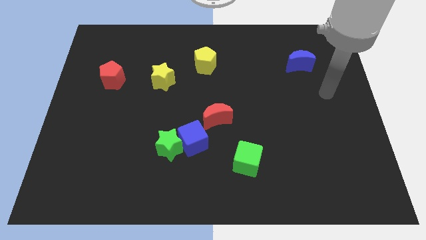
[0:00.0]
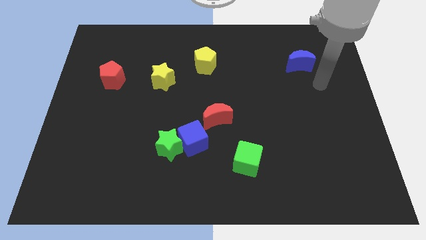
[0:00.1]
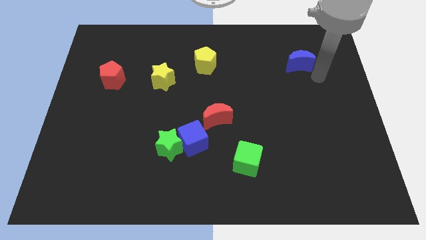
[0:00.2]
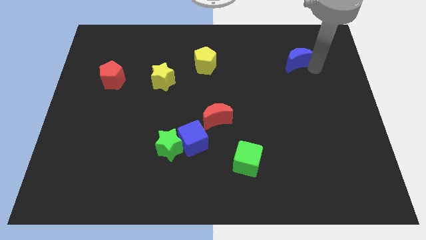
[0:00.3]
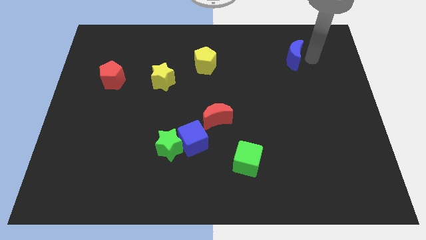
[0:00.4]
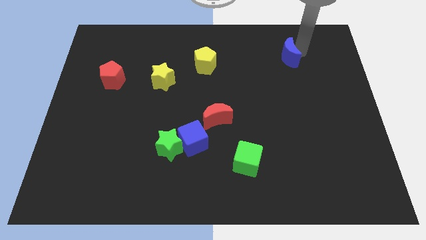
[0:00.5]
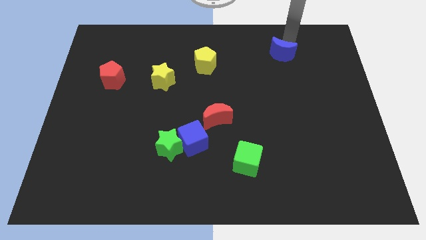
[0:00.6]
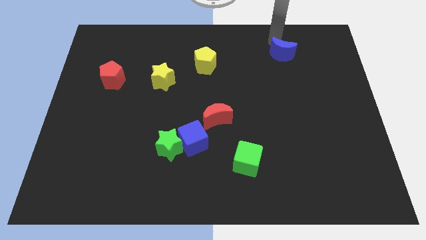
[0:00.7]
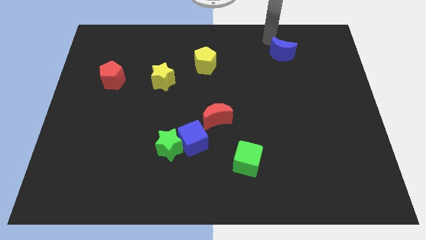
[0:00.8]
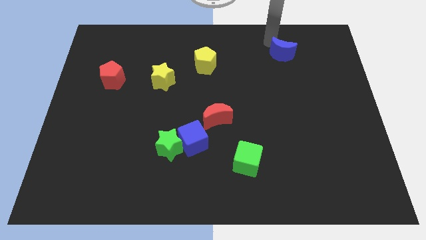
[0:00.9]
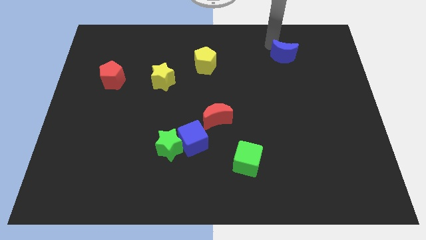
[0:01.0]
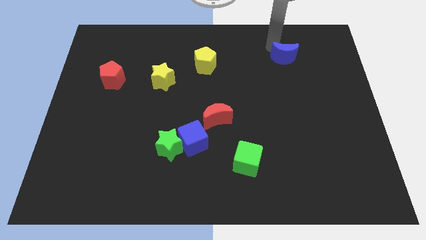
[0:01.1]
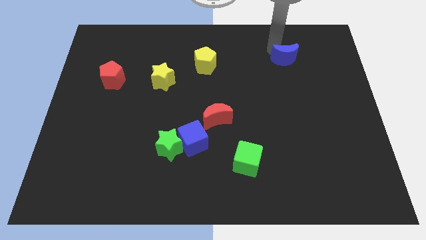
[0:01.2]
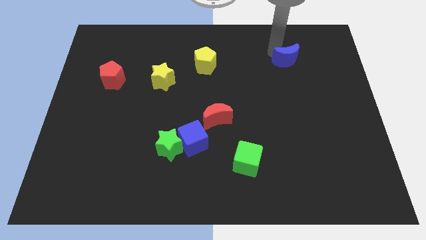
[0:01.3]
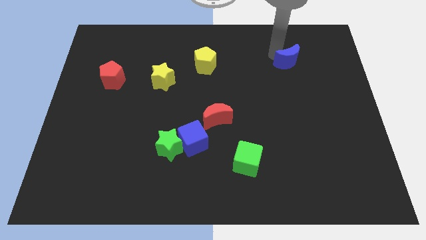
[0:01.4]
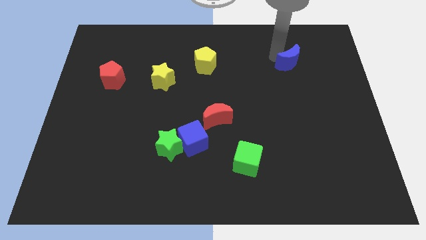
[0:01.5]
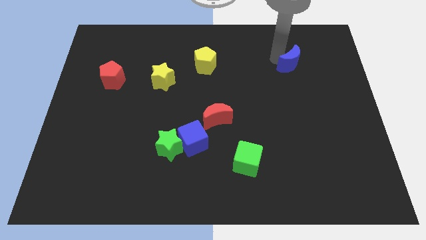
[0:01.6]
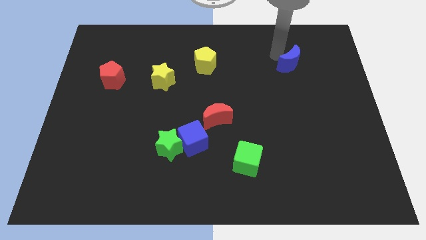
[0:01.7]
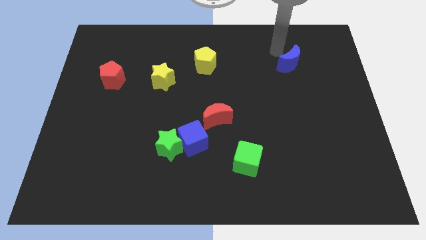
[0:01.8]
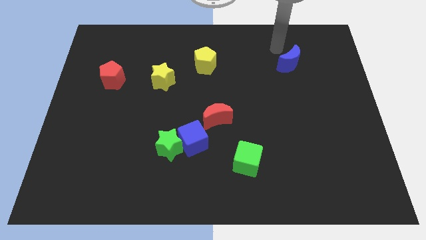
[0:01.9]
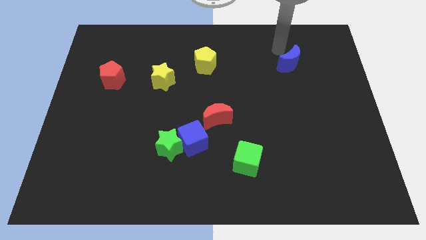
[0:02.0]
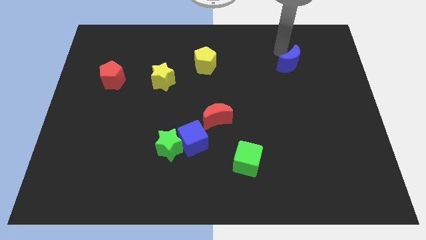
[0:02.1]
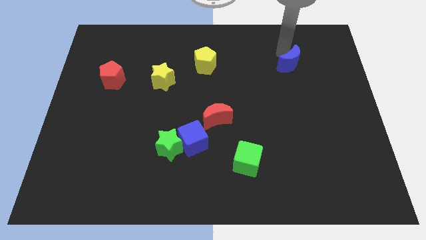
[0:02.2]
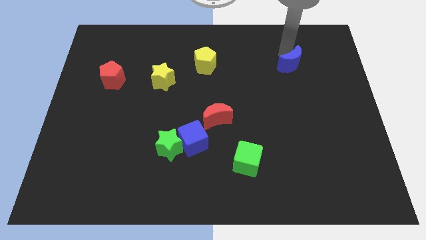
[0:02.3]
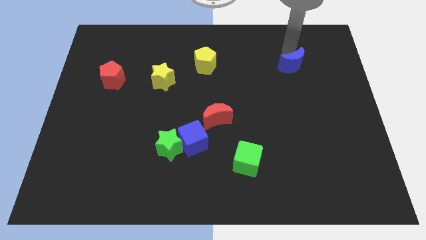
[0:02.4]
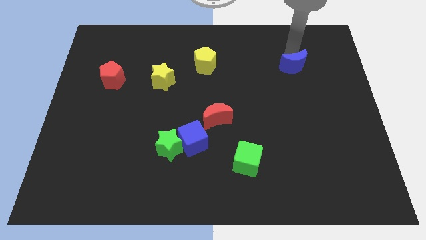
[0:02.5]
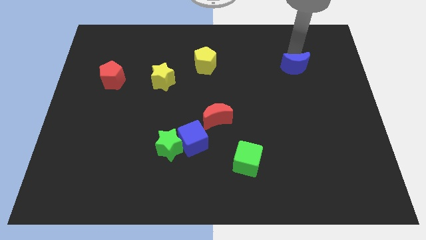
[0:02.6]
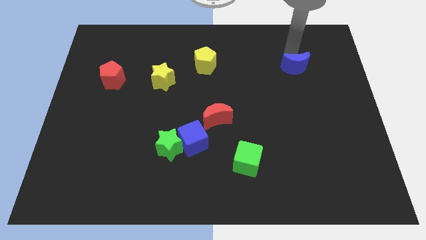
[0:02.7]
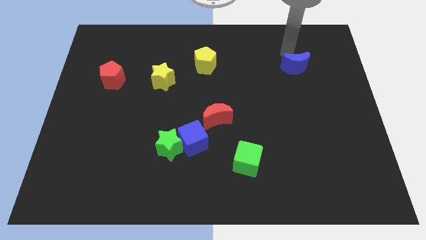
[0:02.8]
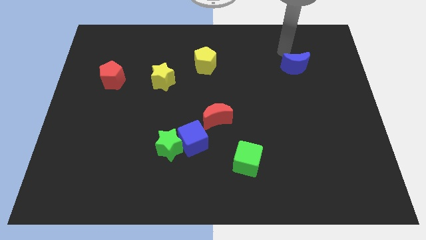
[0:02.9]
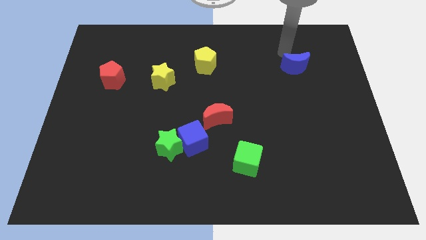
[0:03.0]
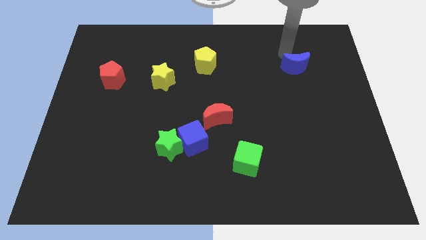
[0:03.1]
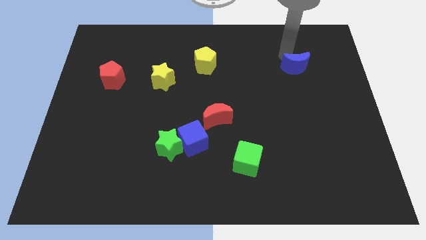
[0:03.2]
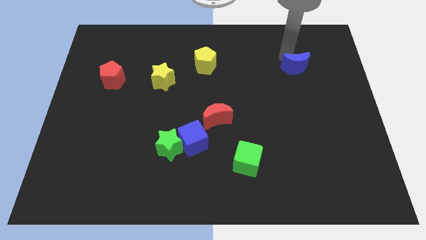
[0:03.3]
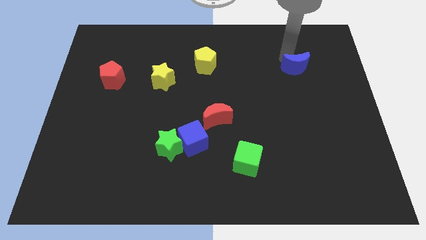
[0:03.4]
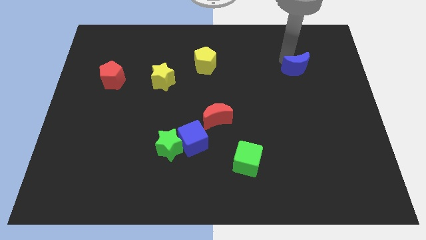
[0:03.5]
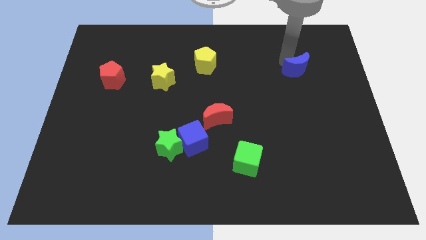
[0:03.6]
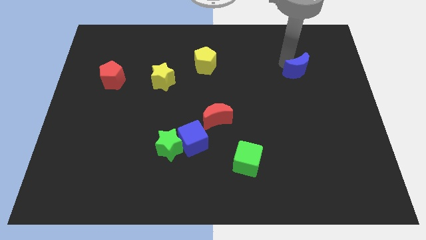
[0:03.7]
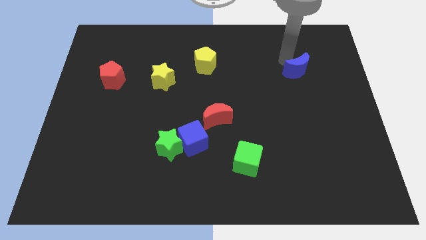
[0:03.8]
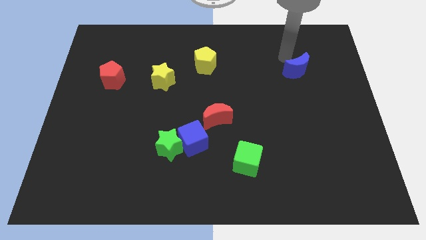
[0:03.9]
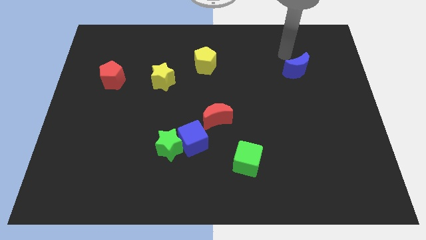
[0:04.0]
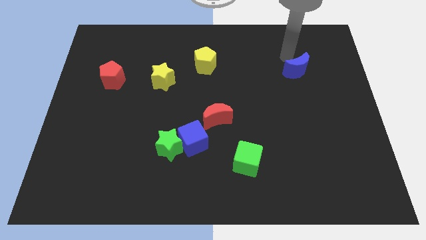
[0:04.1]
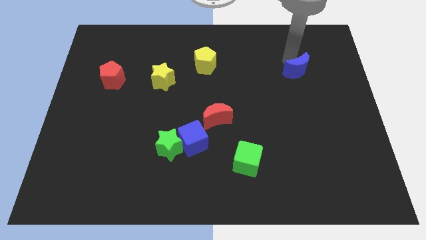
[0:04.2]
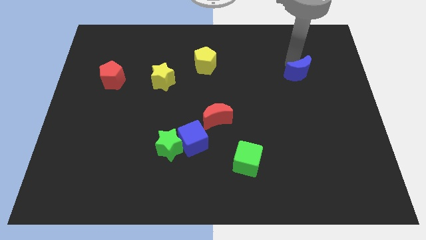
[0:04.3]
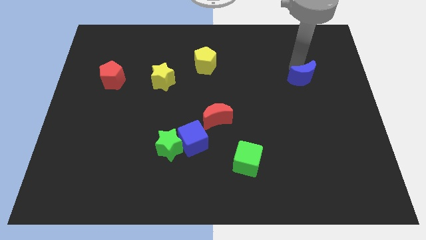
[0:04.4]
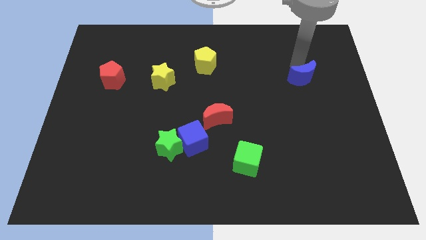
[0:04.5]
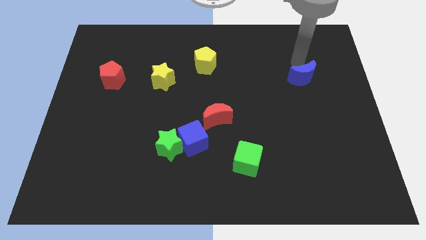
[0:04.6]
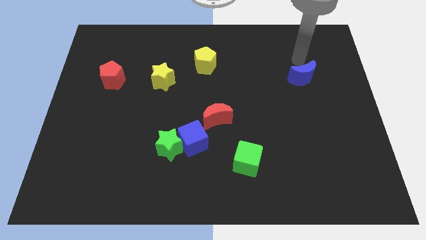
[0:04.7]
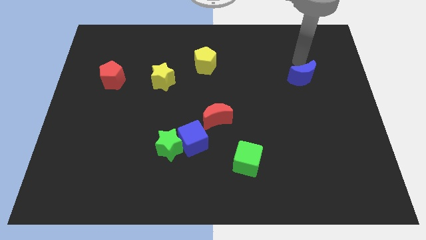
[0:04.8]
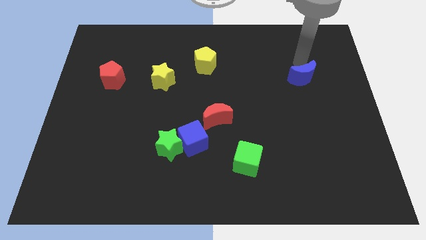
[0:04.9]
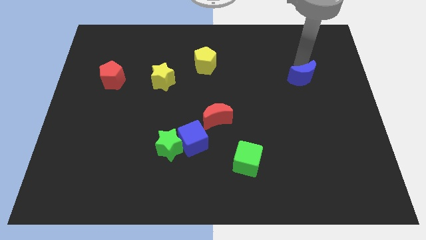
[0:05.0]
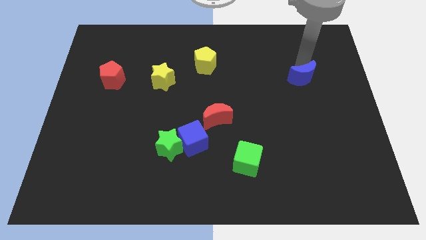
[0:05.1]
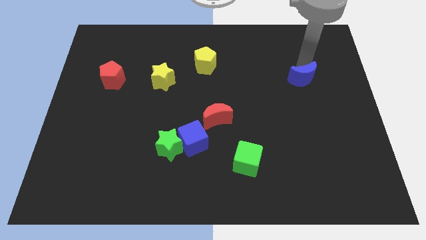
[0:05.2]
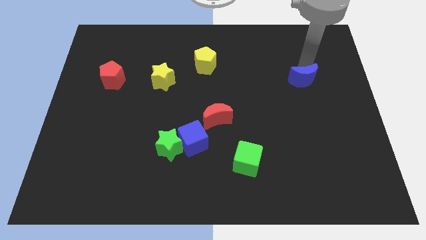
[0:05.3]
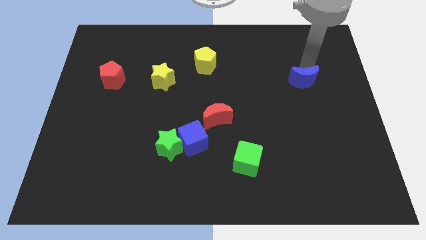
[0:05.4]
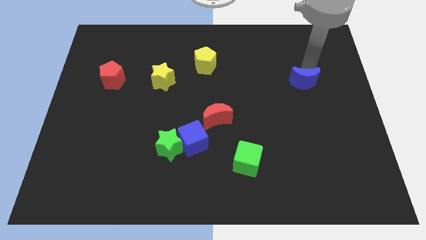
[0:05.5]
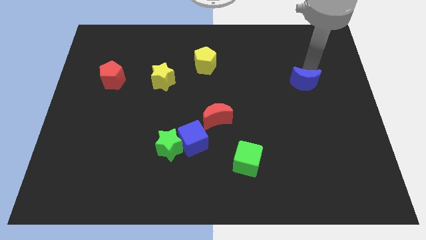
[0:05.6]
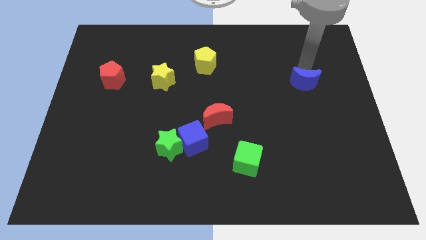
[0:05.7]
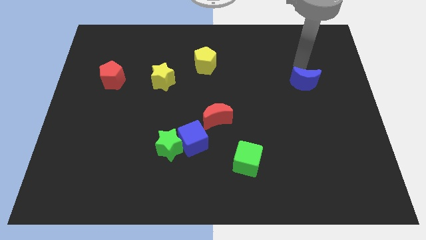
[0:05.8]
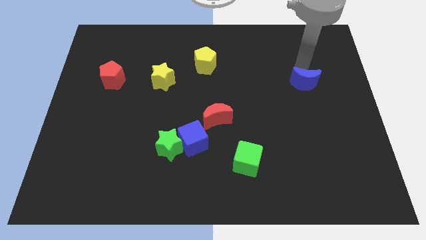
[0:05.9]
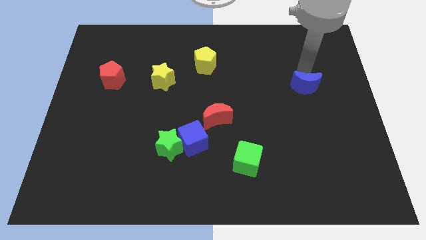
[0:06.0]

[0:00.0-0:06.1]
slightly push the blue moon down

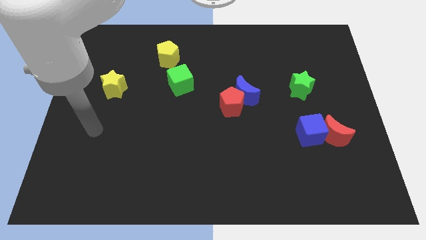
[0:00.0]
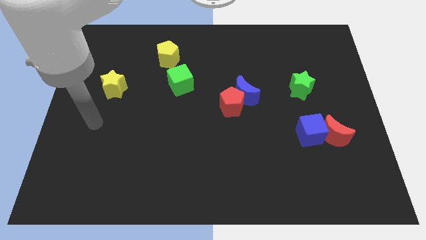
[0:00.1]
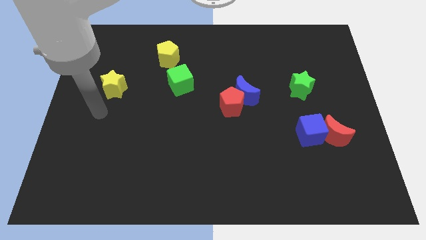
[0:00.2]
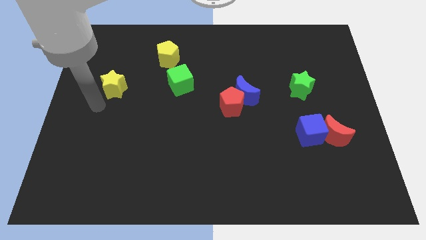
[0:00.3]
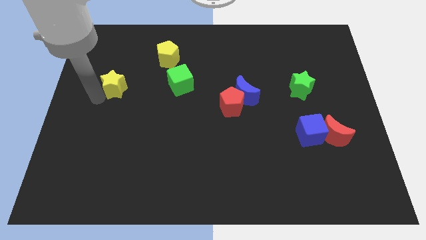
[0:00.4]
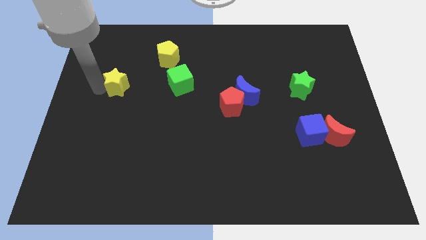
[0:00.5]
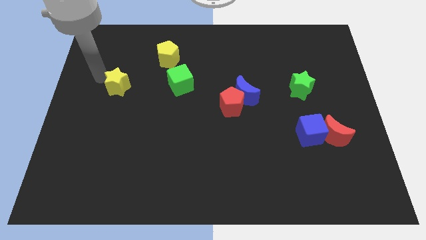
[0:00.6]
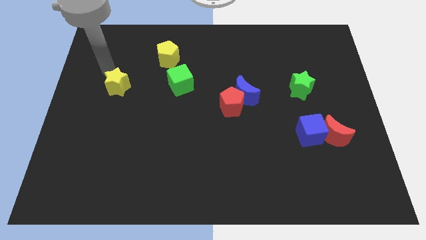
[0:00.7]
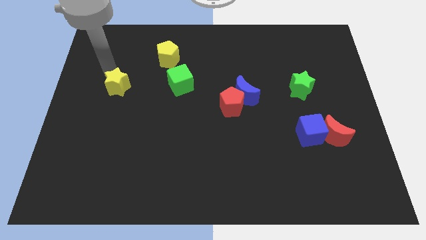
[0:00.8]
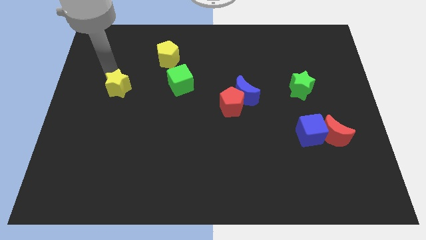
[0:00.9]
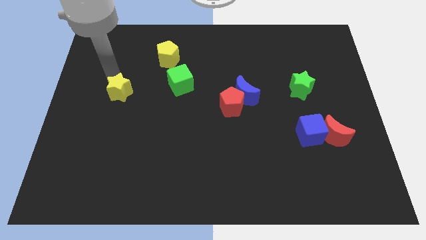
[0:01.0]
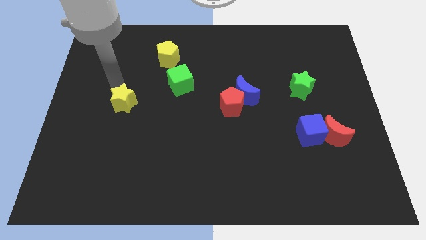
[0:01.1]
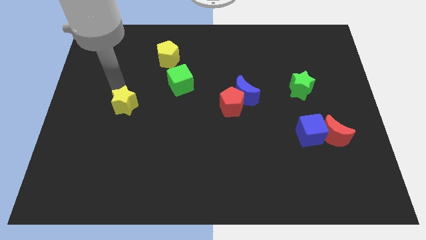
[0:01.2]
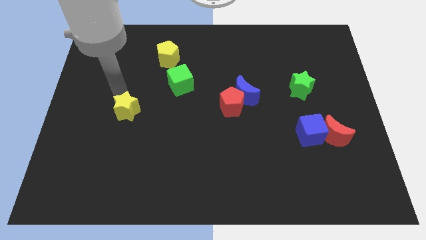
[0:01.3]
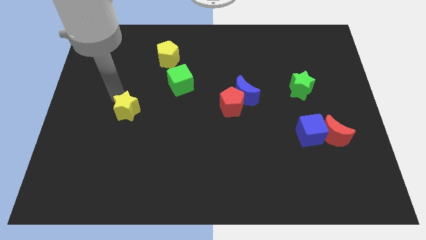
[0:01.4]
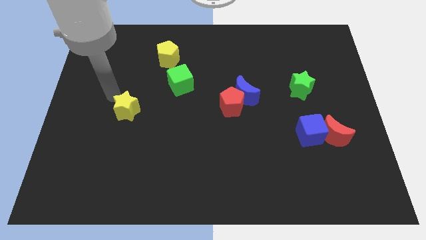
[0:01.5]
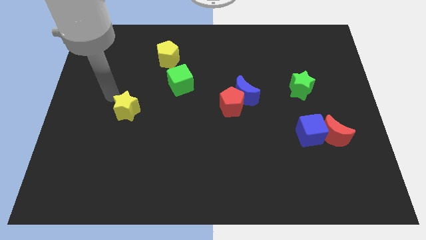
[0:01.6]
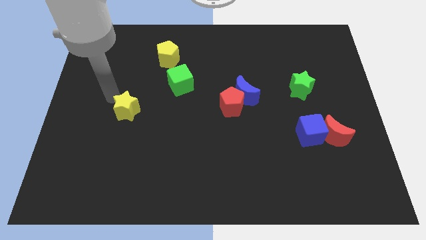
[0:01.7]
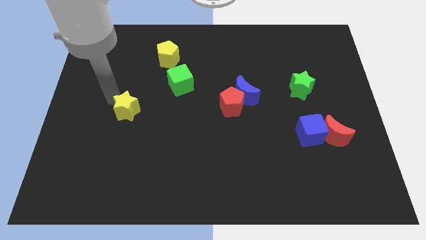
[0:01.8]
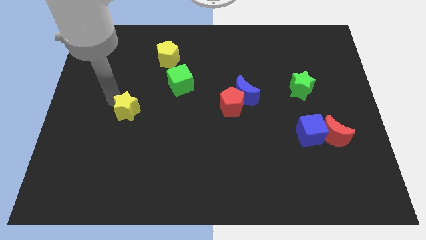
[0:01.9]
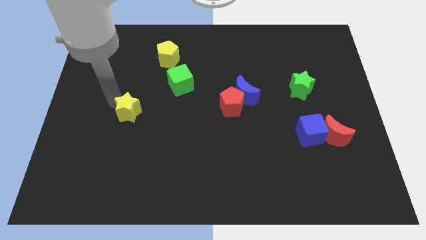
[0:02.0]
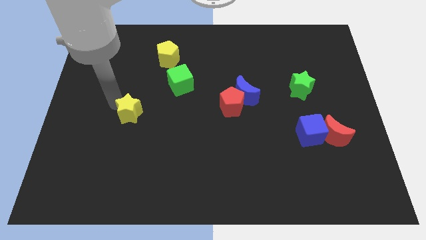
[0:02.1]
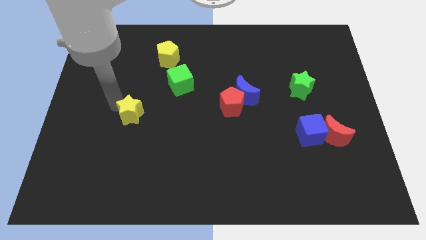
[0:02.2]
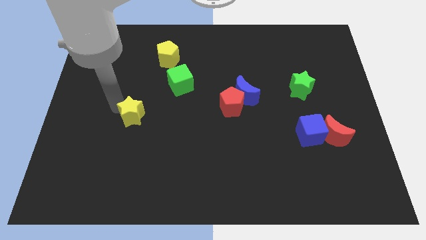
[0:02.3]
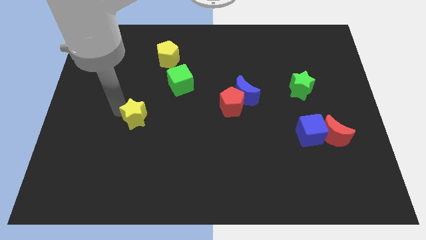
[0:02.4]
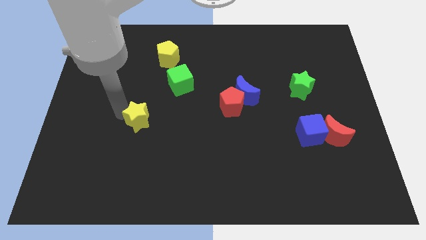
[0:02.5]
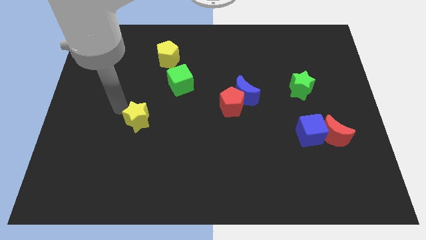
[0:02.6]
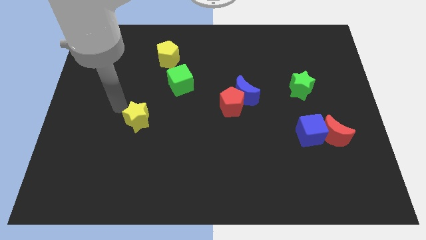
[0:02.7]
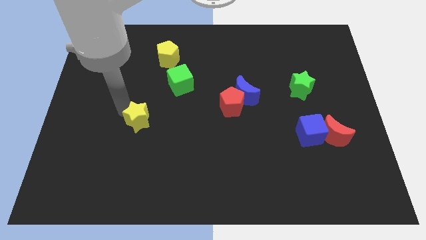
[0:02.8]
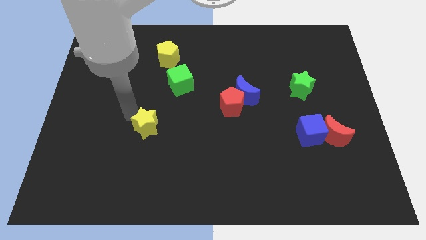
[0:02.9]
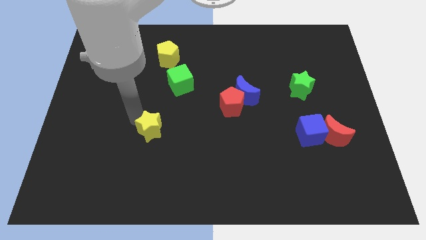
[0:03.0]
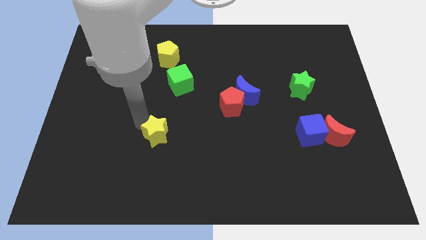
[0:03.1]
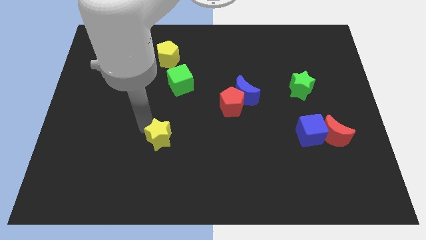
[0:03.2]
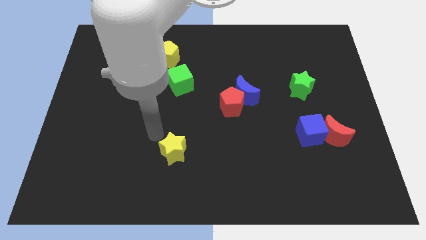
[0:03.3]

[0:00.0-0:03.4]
move the yellow star downwards and right diagonally
